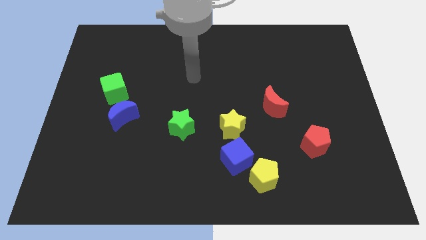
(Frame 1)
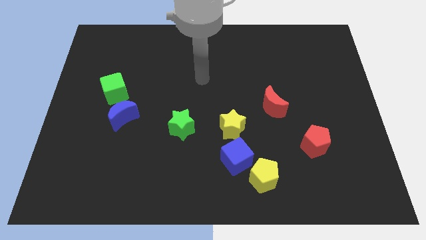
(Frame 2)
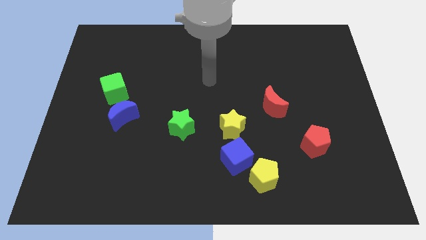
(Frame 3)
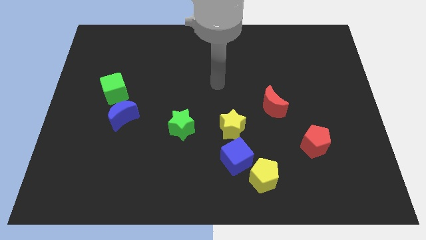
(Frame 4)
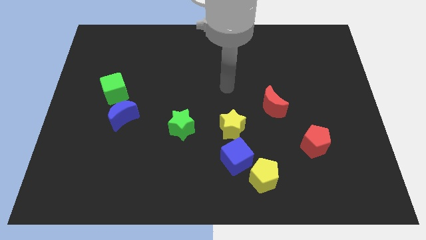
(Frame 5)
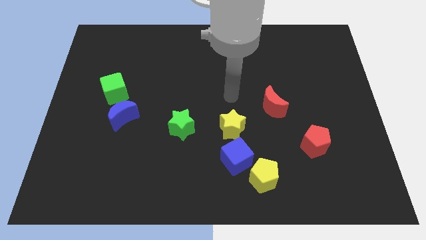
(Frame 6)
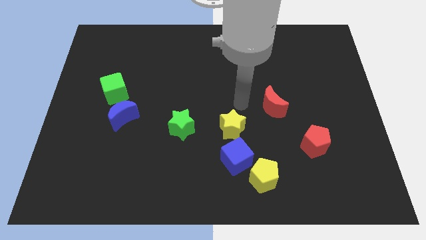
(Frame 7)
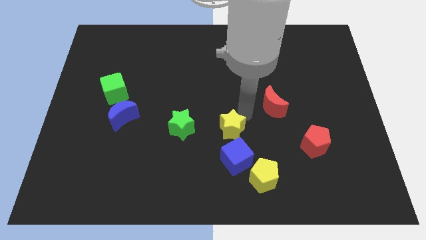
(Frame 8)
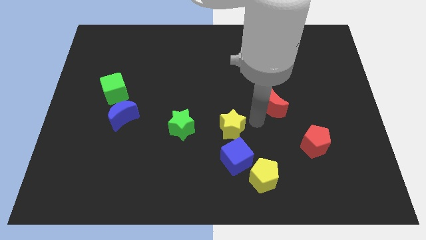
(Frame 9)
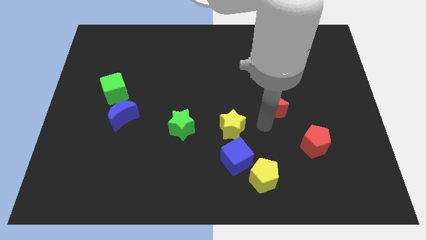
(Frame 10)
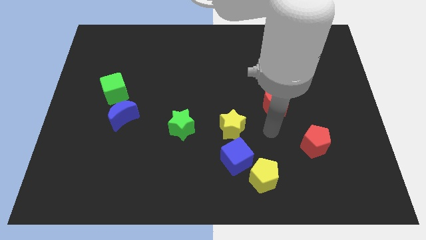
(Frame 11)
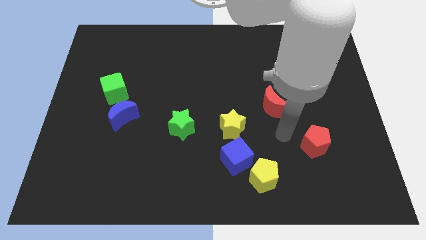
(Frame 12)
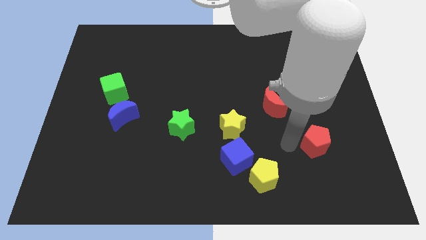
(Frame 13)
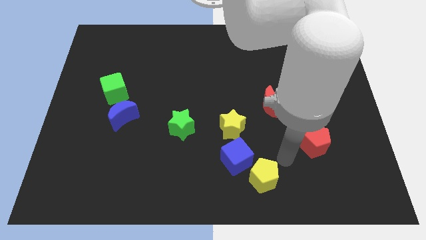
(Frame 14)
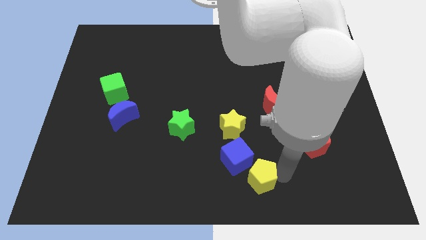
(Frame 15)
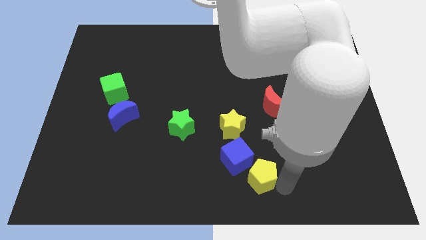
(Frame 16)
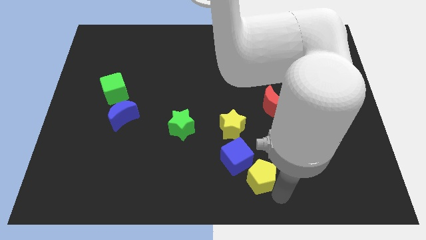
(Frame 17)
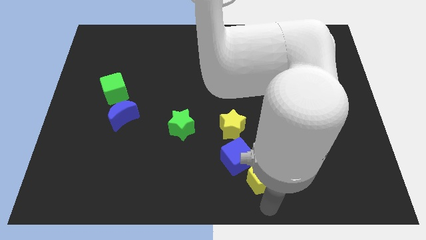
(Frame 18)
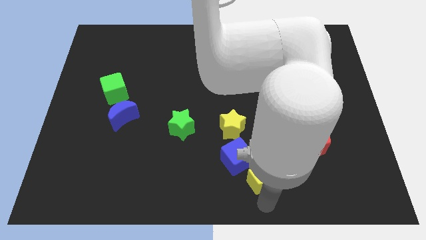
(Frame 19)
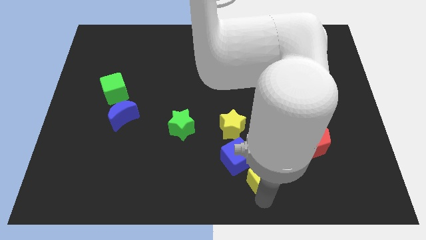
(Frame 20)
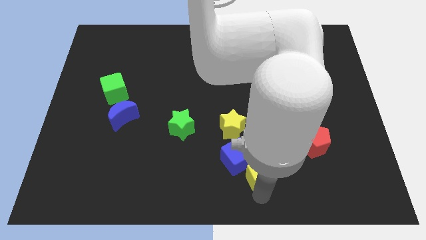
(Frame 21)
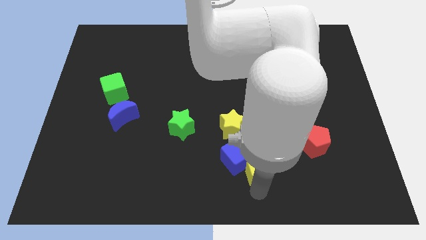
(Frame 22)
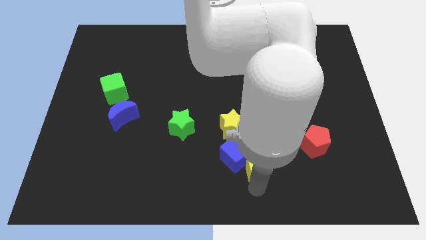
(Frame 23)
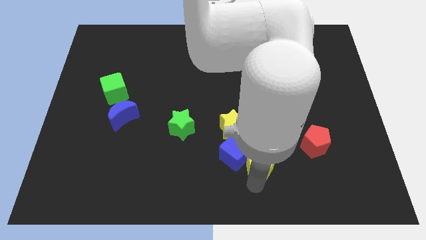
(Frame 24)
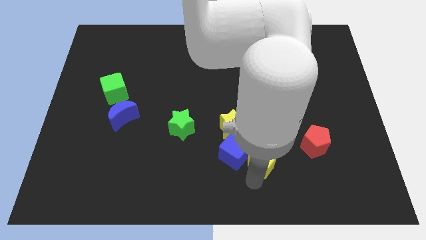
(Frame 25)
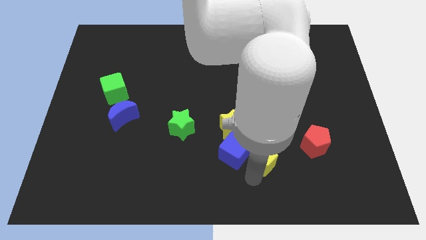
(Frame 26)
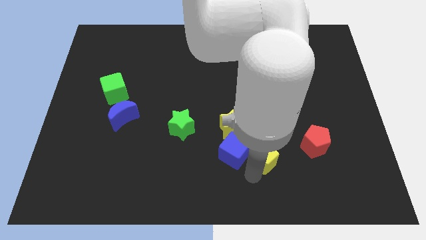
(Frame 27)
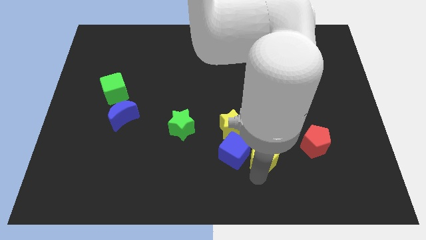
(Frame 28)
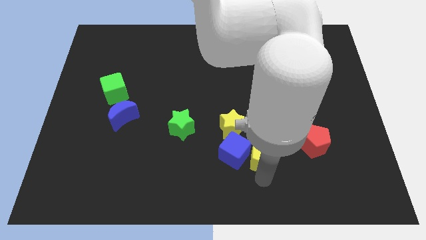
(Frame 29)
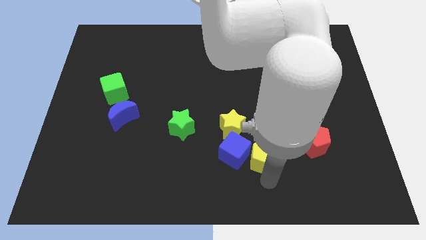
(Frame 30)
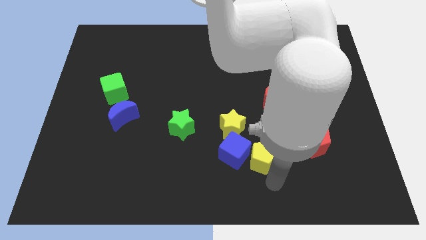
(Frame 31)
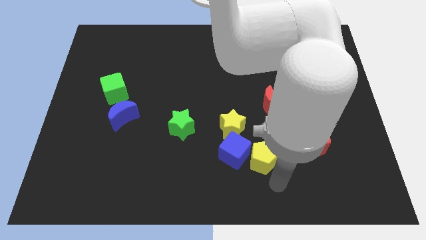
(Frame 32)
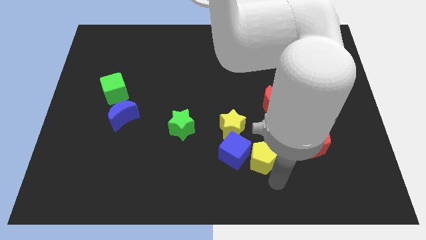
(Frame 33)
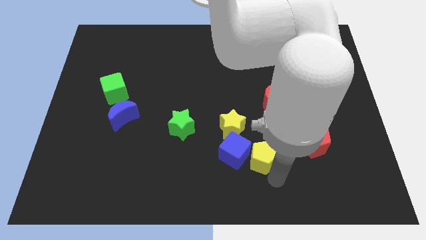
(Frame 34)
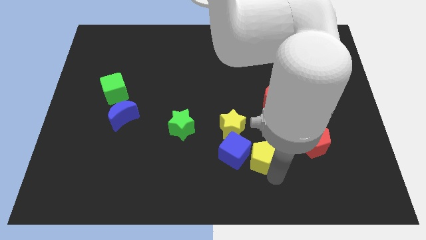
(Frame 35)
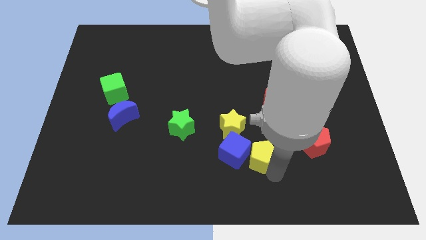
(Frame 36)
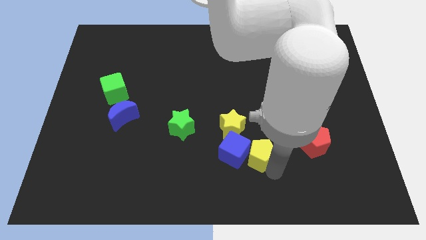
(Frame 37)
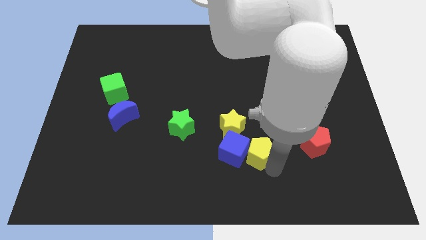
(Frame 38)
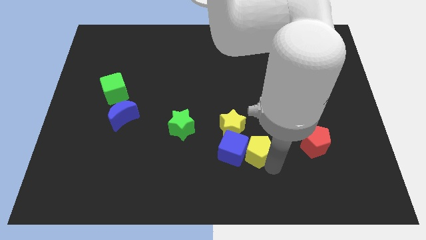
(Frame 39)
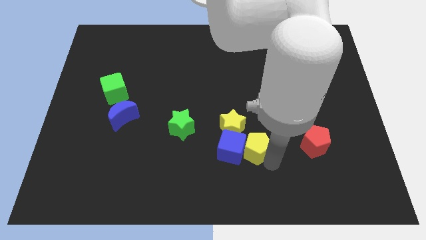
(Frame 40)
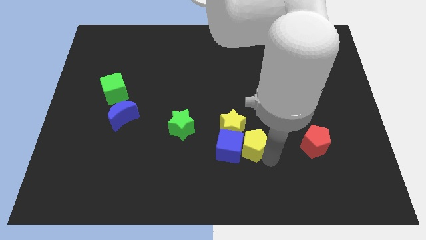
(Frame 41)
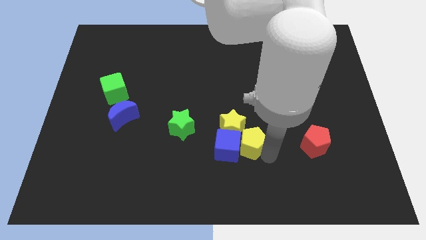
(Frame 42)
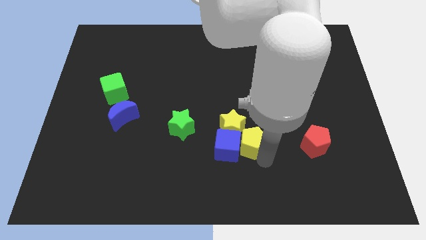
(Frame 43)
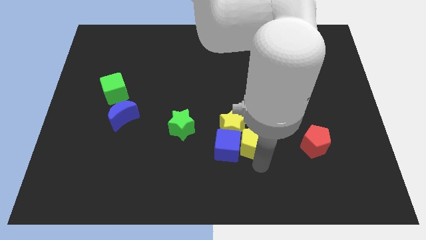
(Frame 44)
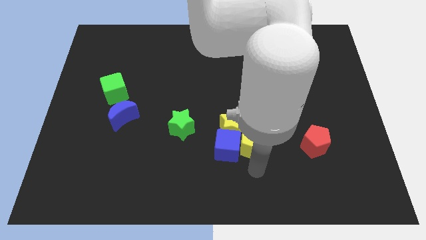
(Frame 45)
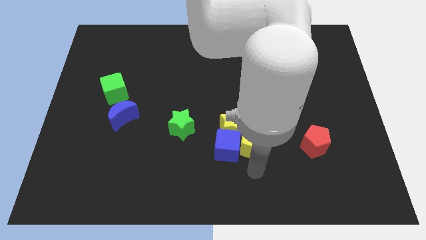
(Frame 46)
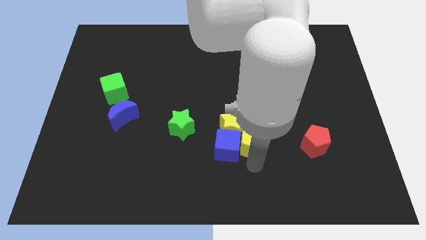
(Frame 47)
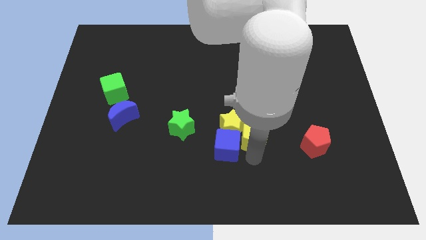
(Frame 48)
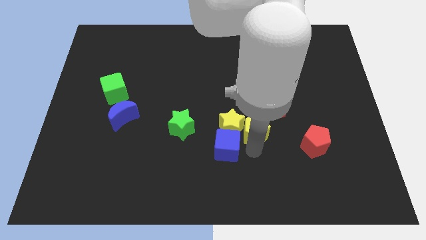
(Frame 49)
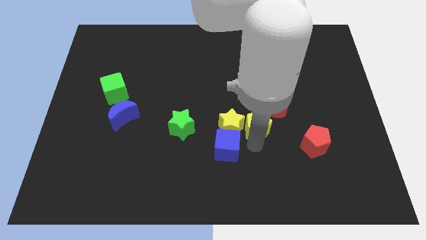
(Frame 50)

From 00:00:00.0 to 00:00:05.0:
push the yellow pentagon to the center

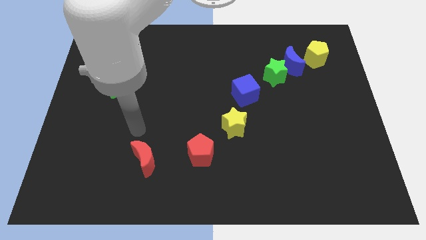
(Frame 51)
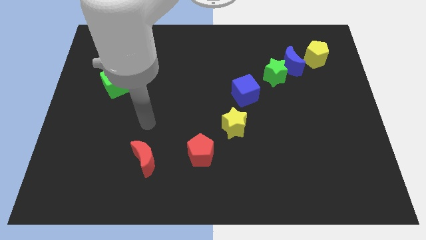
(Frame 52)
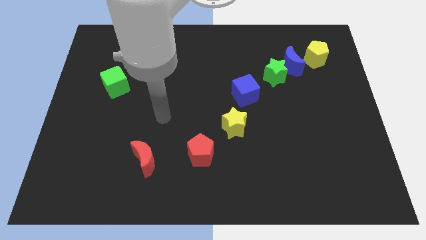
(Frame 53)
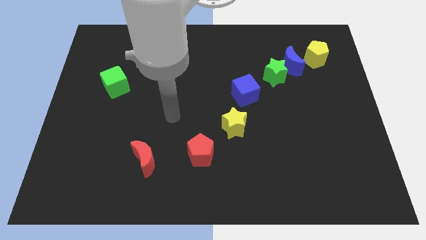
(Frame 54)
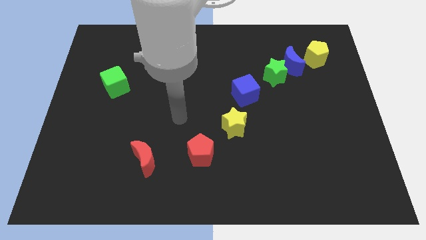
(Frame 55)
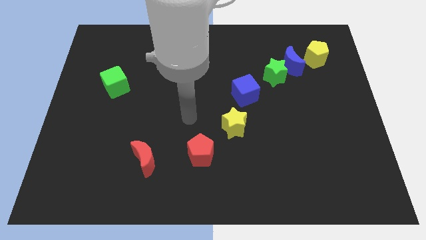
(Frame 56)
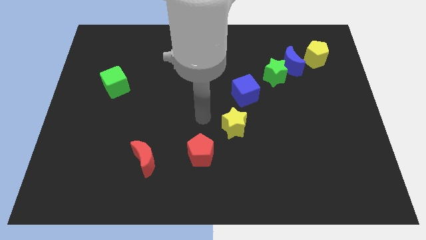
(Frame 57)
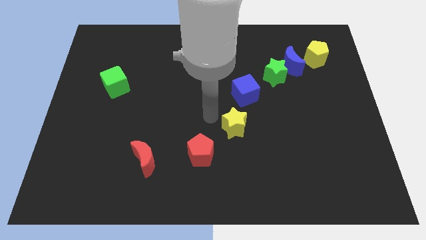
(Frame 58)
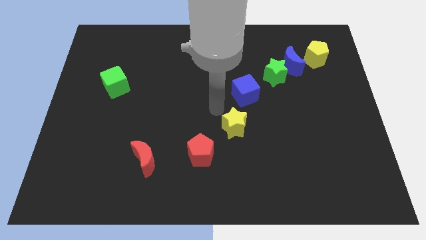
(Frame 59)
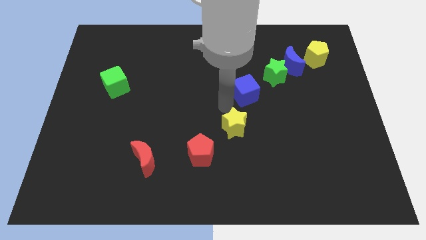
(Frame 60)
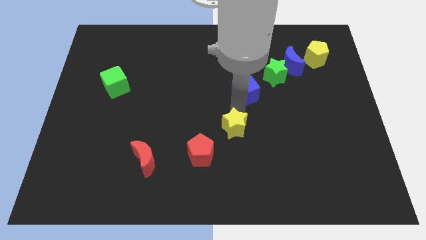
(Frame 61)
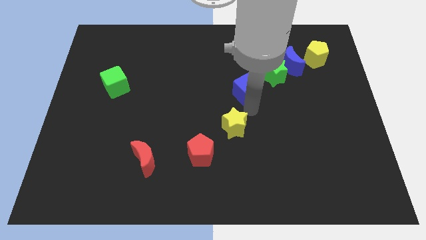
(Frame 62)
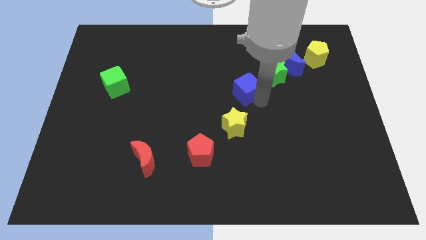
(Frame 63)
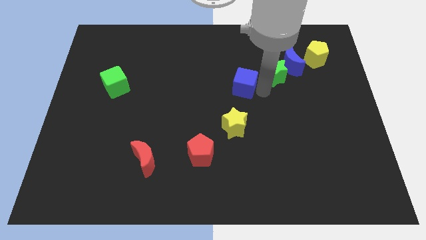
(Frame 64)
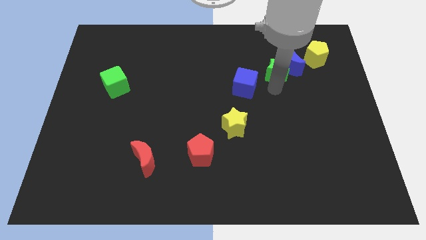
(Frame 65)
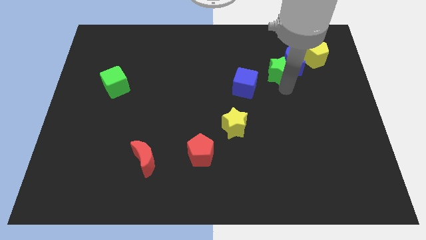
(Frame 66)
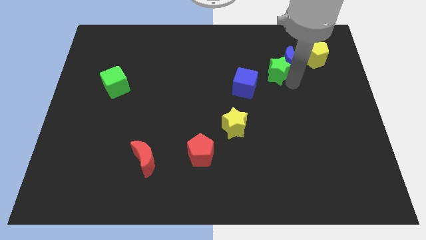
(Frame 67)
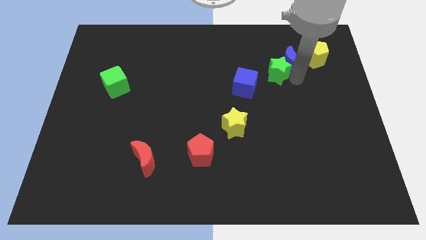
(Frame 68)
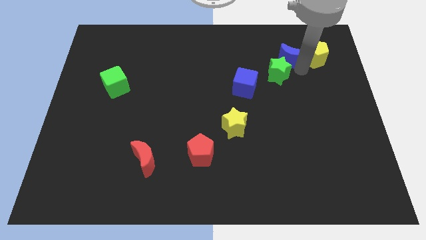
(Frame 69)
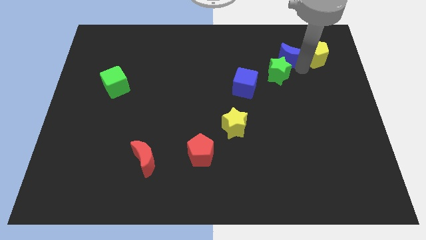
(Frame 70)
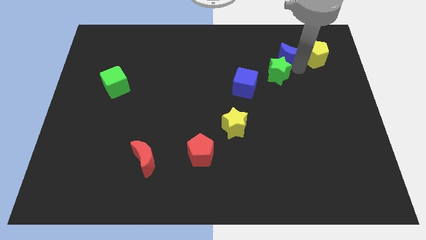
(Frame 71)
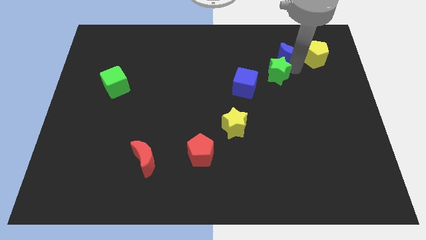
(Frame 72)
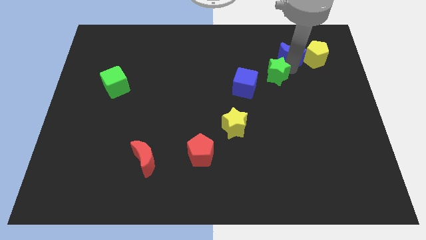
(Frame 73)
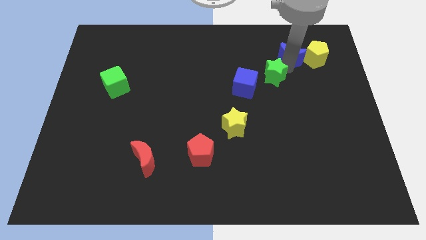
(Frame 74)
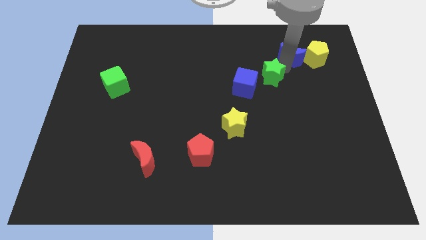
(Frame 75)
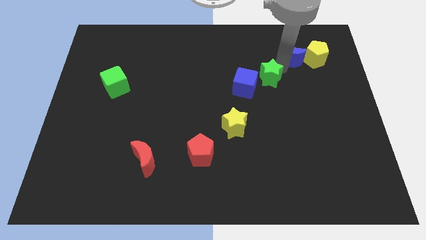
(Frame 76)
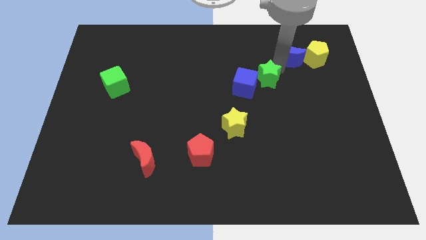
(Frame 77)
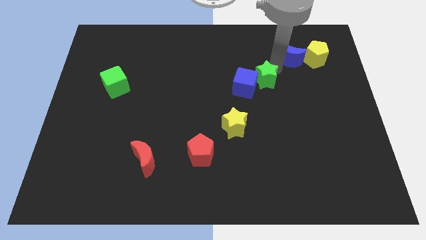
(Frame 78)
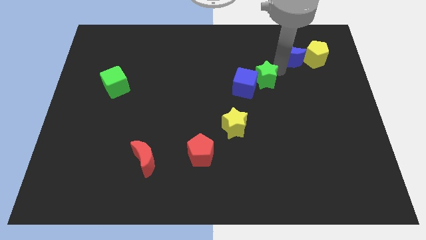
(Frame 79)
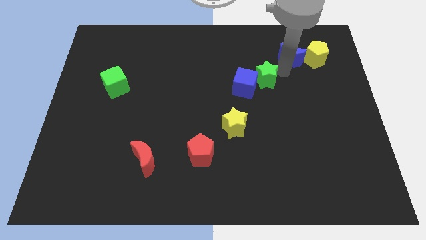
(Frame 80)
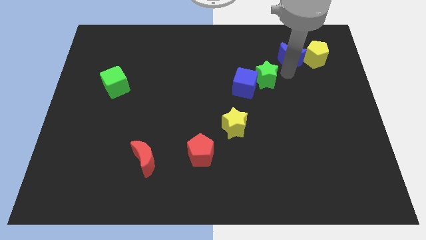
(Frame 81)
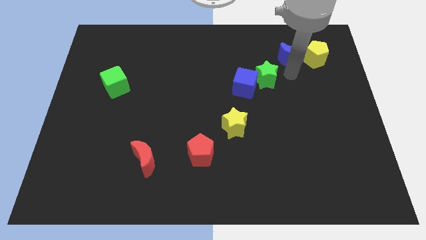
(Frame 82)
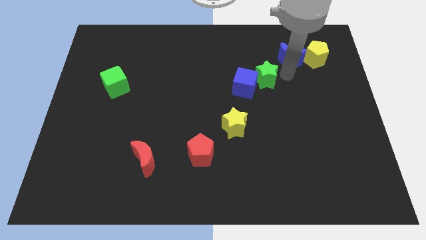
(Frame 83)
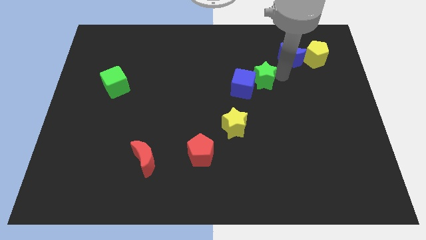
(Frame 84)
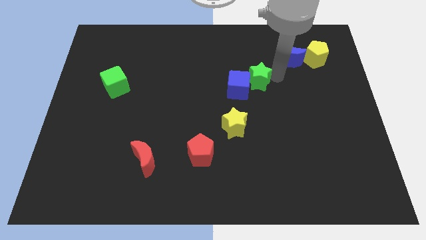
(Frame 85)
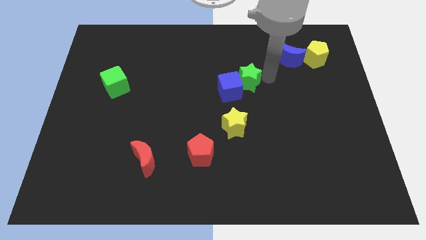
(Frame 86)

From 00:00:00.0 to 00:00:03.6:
move the green star to the middle of the board
